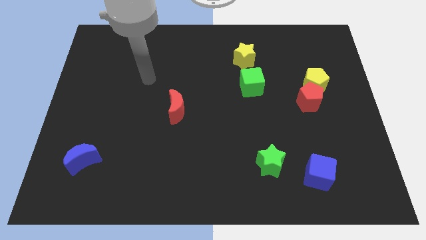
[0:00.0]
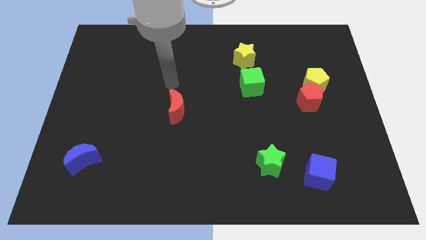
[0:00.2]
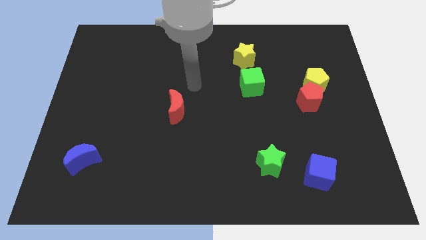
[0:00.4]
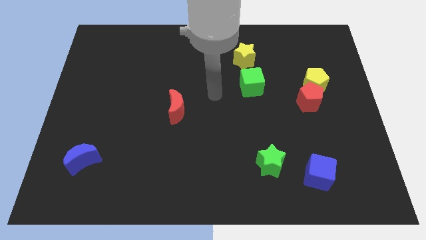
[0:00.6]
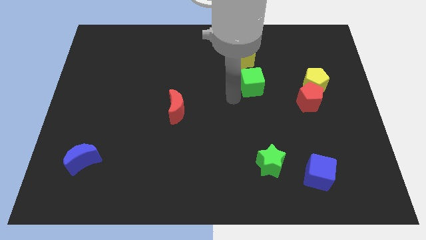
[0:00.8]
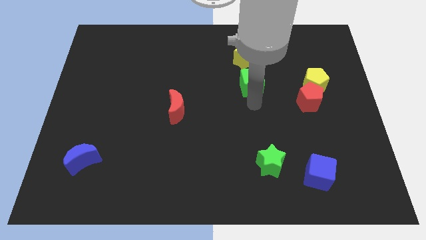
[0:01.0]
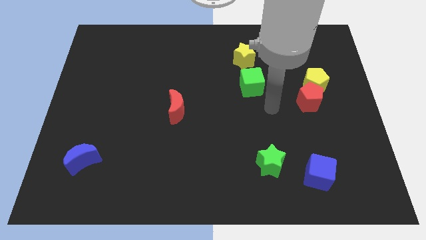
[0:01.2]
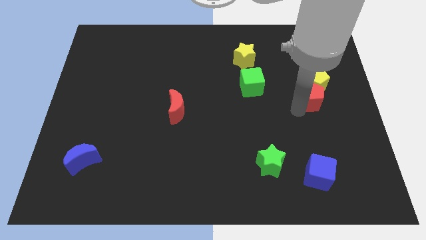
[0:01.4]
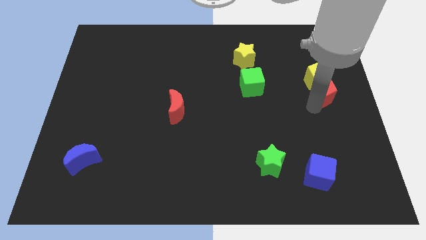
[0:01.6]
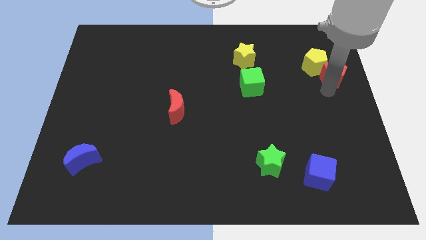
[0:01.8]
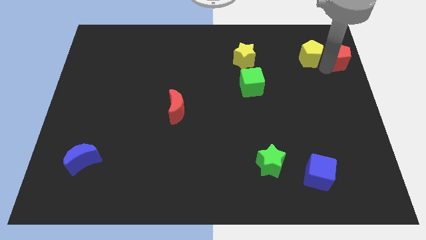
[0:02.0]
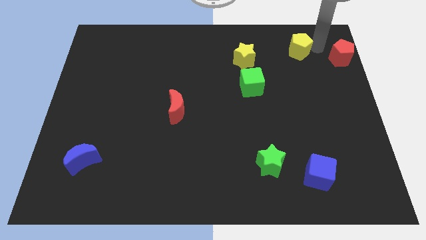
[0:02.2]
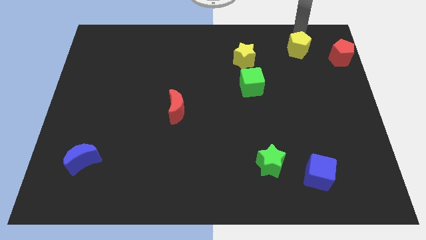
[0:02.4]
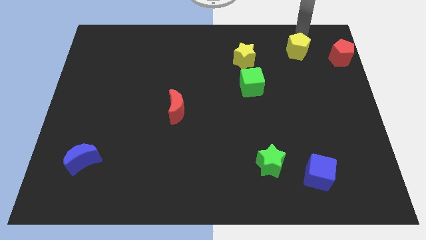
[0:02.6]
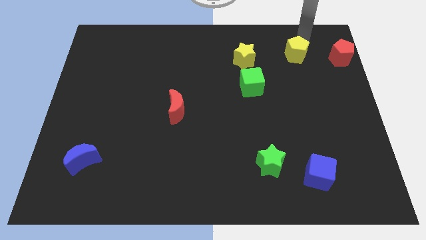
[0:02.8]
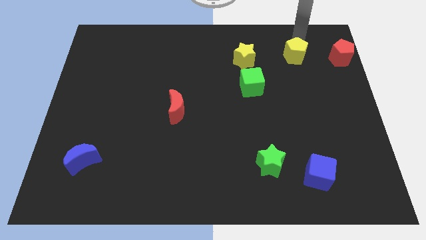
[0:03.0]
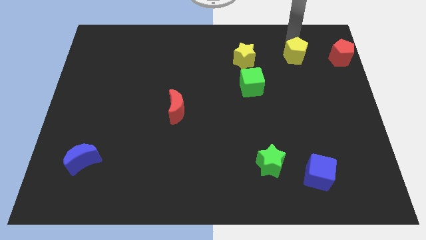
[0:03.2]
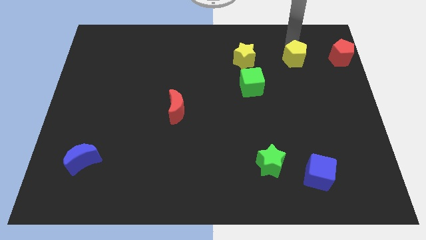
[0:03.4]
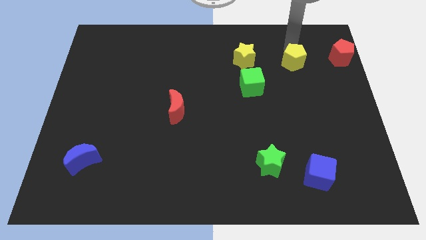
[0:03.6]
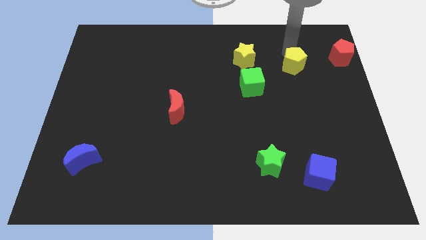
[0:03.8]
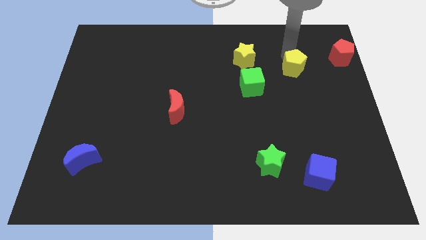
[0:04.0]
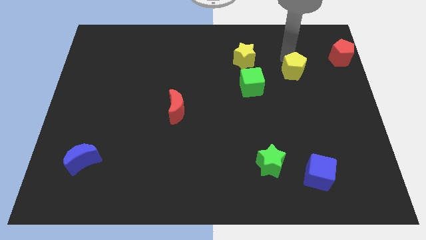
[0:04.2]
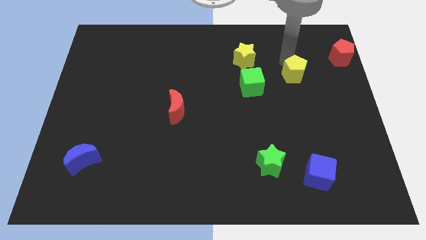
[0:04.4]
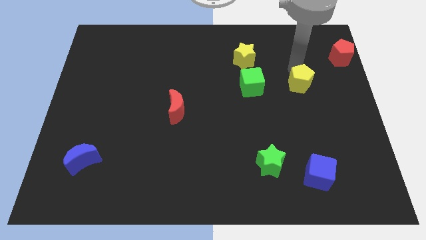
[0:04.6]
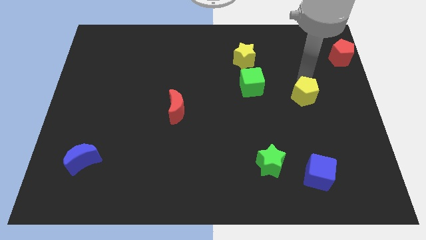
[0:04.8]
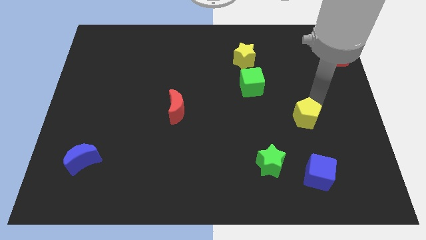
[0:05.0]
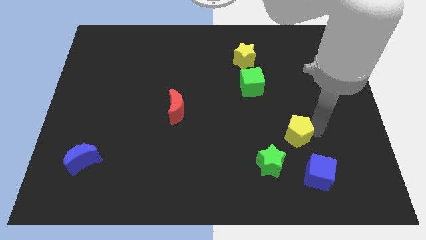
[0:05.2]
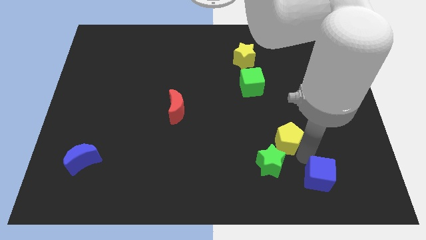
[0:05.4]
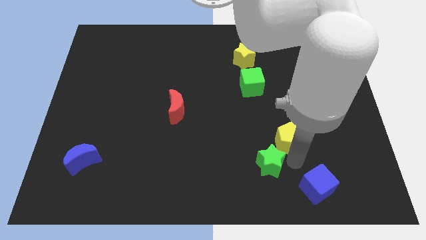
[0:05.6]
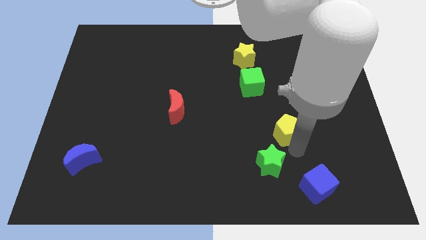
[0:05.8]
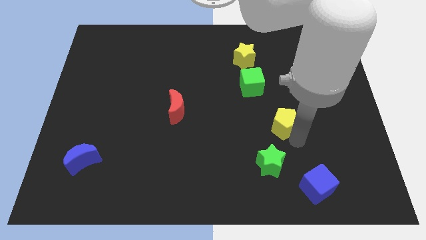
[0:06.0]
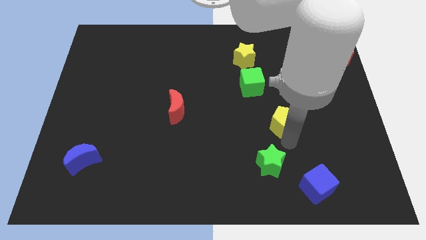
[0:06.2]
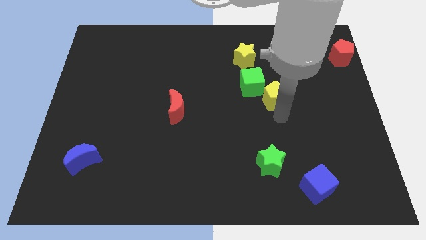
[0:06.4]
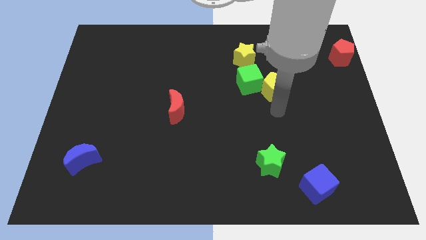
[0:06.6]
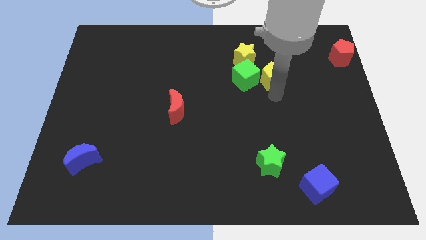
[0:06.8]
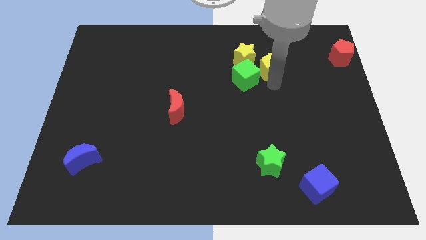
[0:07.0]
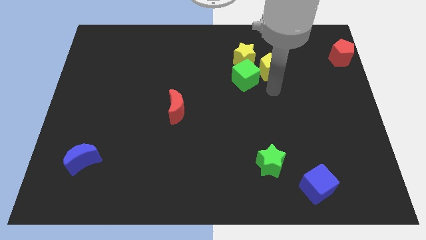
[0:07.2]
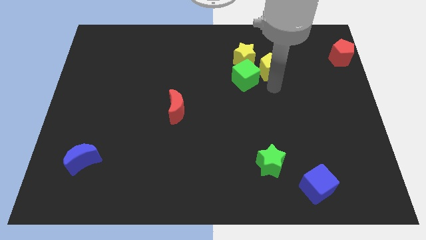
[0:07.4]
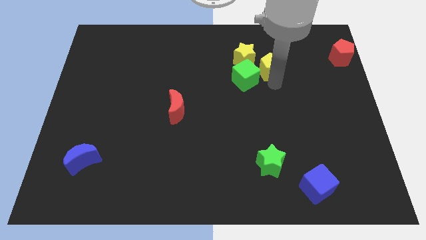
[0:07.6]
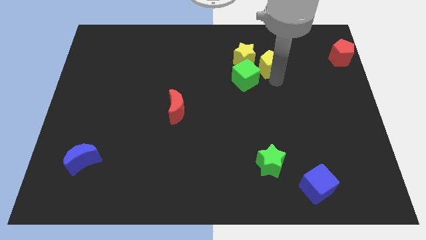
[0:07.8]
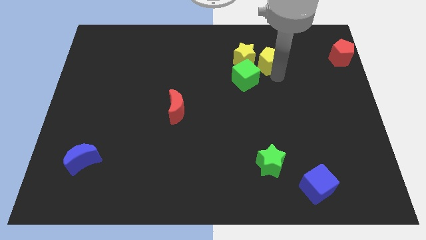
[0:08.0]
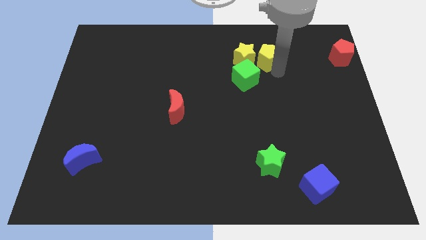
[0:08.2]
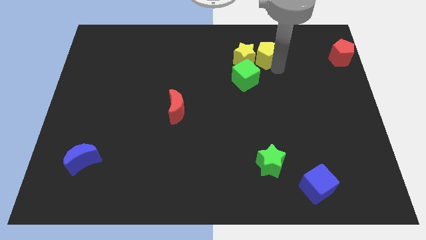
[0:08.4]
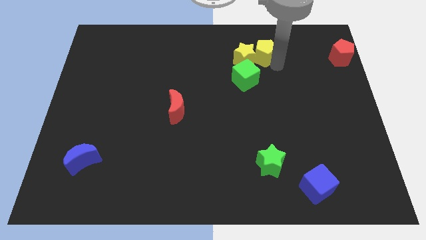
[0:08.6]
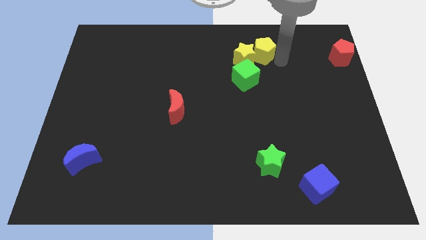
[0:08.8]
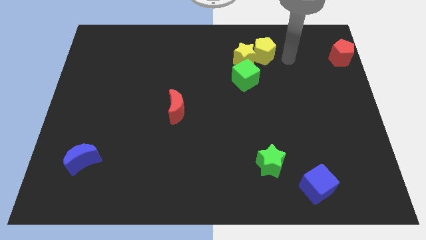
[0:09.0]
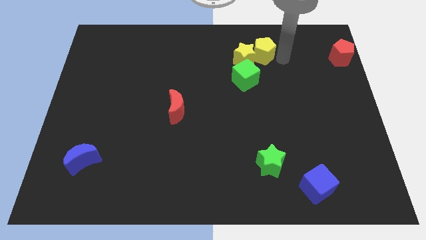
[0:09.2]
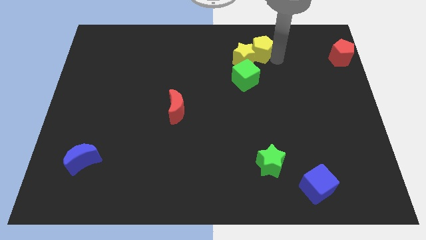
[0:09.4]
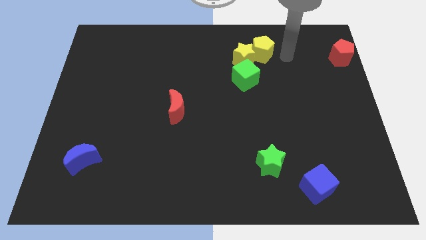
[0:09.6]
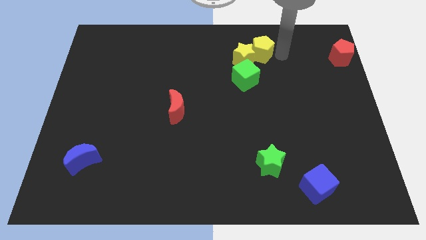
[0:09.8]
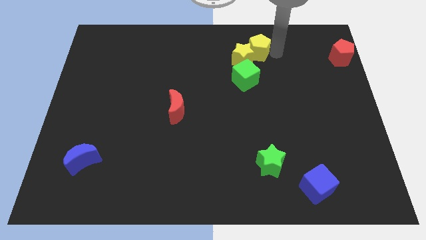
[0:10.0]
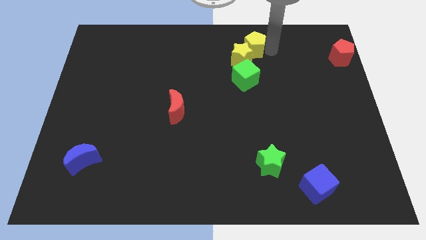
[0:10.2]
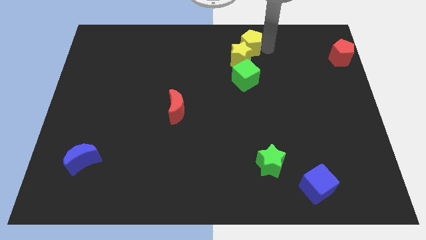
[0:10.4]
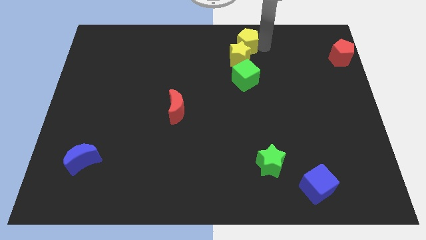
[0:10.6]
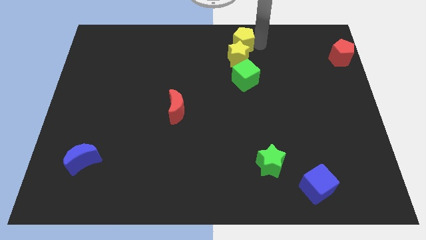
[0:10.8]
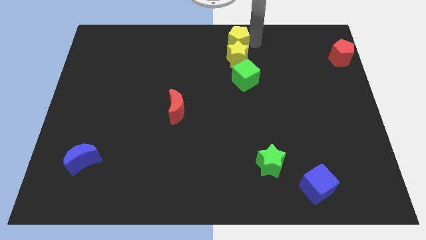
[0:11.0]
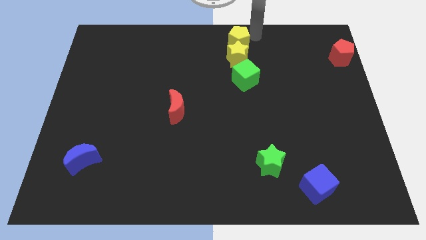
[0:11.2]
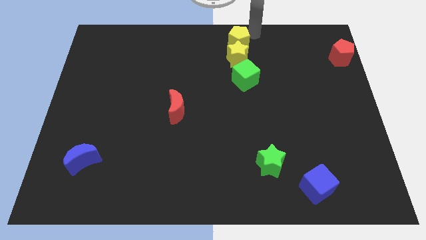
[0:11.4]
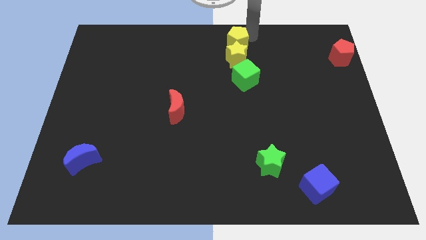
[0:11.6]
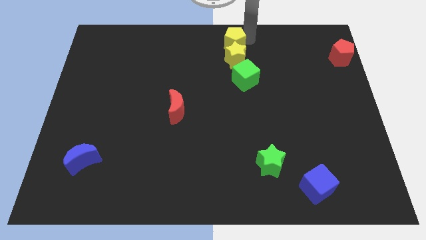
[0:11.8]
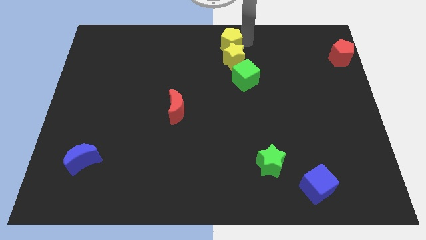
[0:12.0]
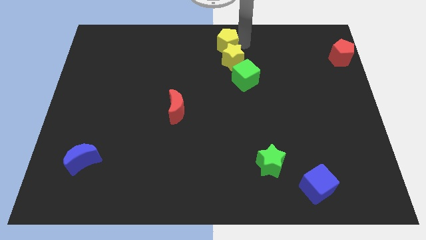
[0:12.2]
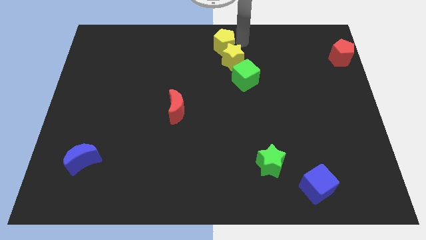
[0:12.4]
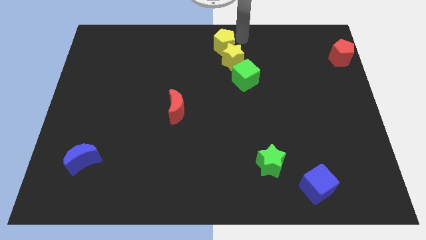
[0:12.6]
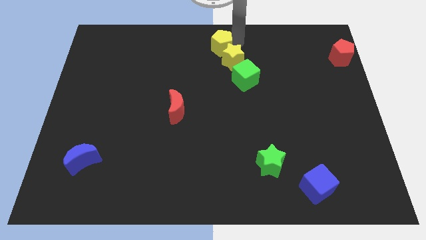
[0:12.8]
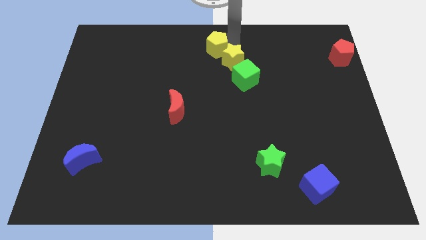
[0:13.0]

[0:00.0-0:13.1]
slide the yellow pentagon left of the yellow star

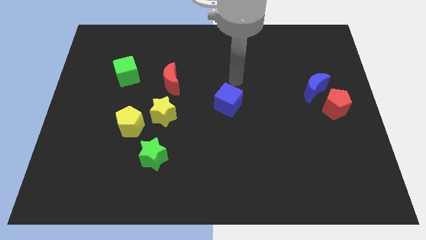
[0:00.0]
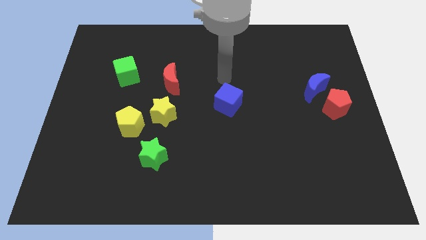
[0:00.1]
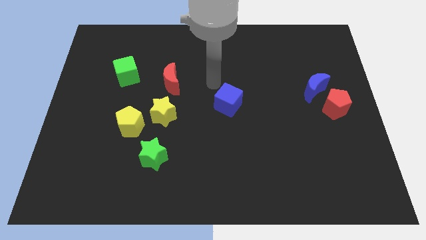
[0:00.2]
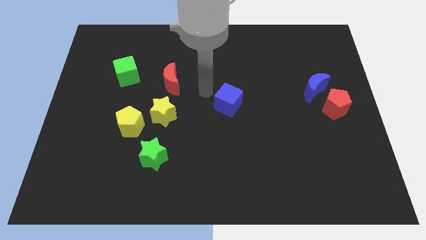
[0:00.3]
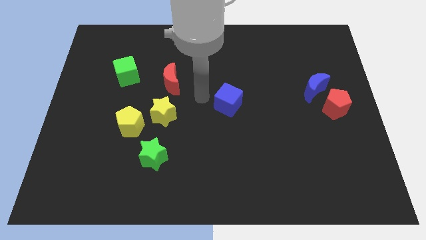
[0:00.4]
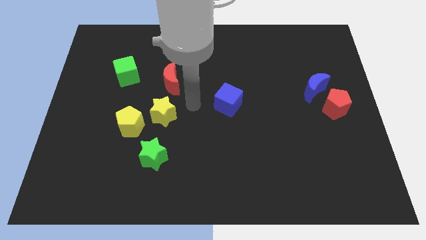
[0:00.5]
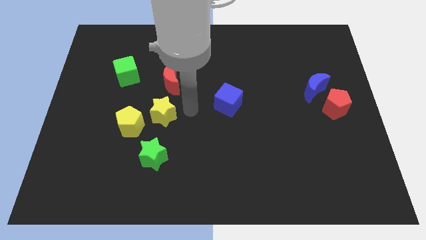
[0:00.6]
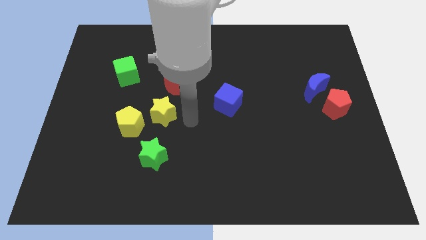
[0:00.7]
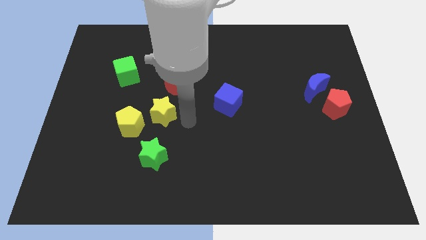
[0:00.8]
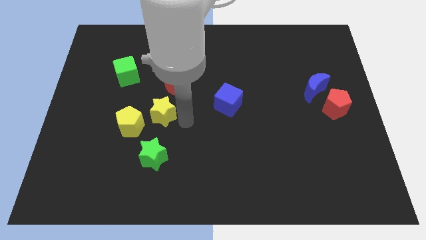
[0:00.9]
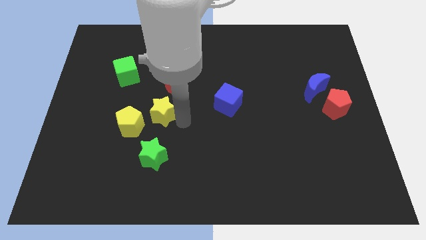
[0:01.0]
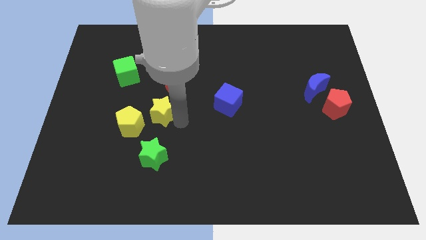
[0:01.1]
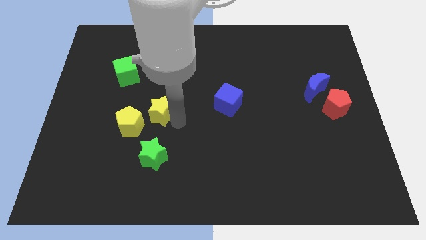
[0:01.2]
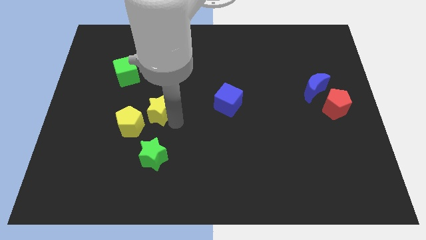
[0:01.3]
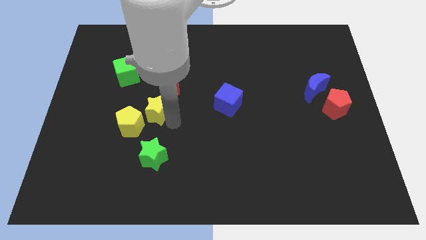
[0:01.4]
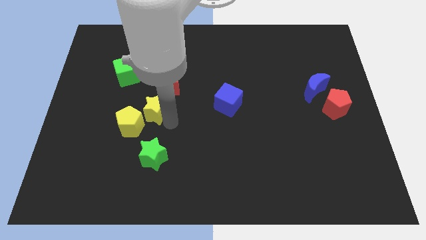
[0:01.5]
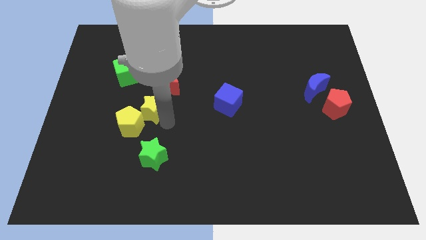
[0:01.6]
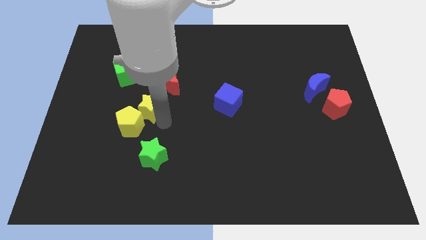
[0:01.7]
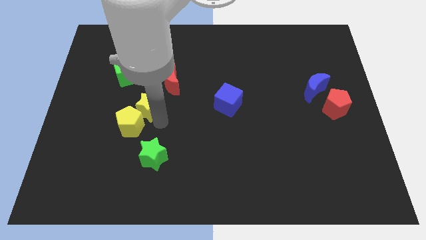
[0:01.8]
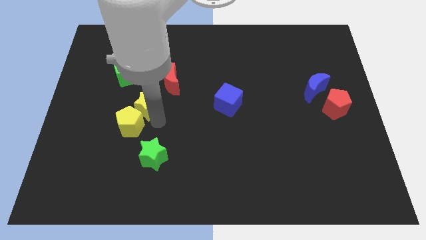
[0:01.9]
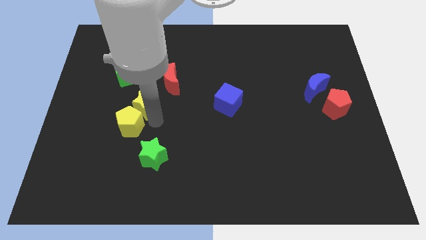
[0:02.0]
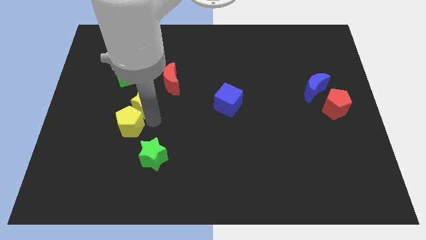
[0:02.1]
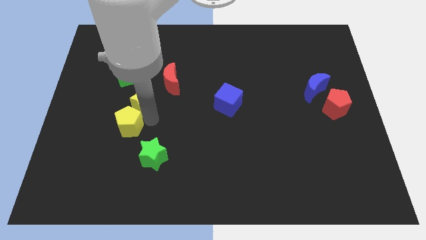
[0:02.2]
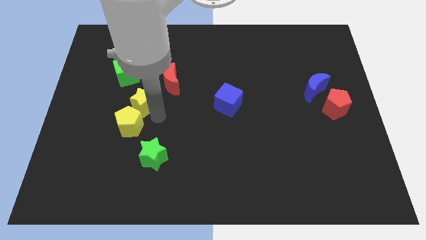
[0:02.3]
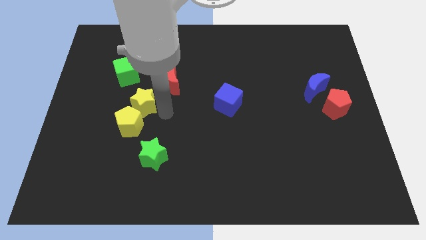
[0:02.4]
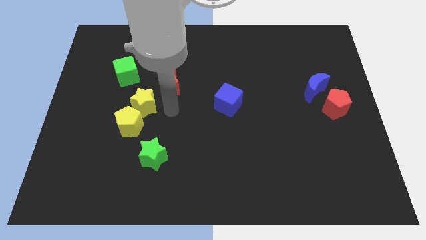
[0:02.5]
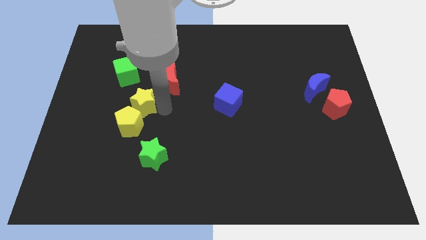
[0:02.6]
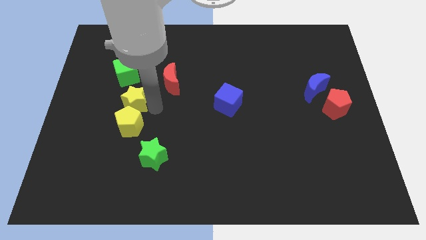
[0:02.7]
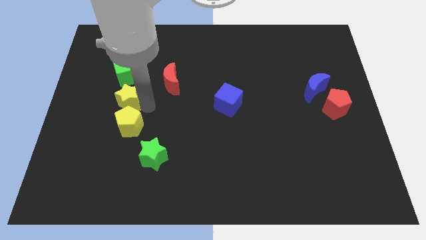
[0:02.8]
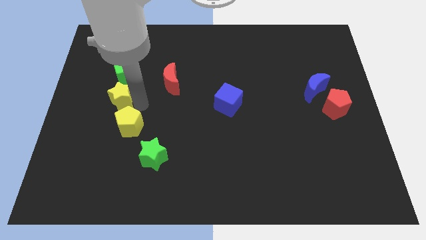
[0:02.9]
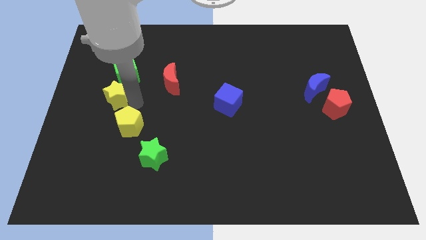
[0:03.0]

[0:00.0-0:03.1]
move the yellow star to the bottom left of the green cube
